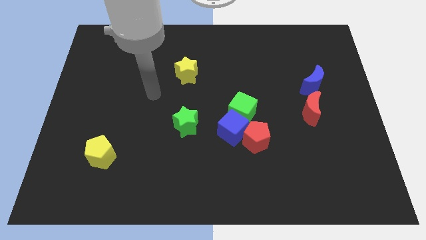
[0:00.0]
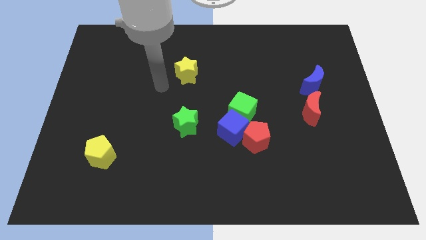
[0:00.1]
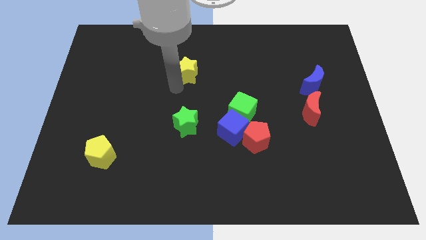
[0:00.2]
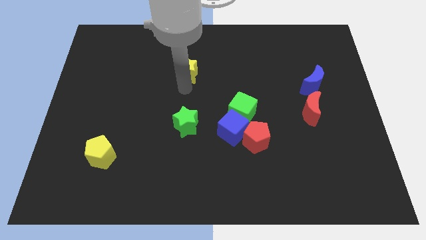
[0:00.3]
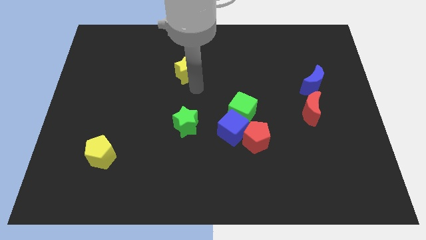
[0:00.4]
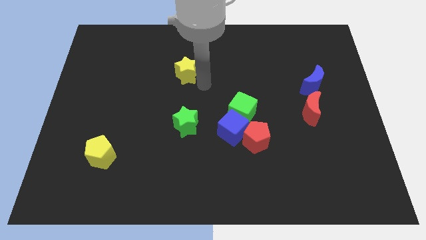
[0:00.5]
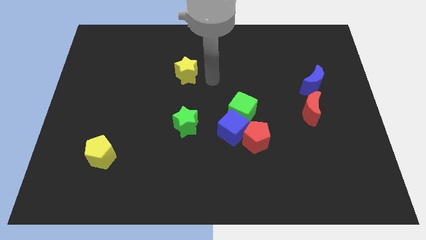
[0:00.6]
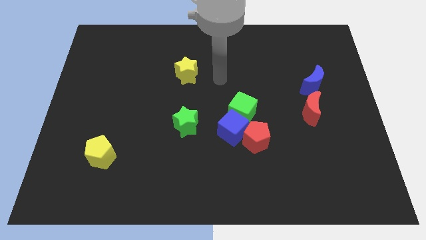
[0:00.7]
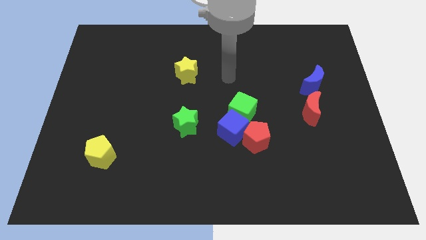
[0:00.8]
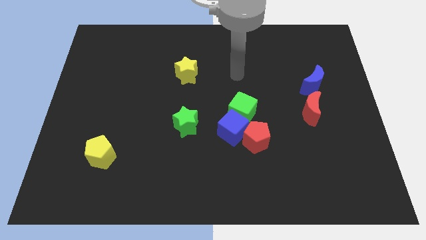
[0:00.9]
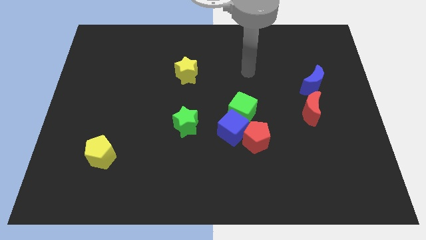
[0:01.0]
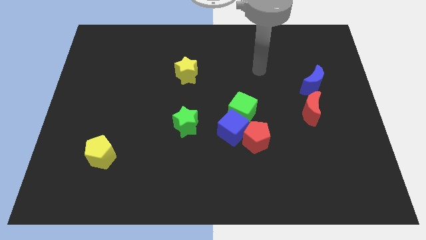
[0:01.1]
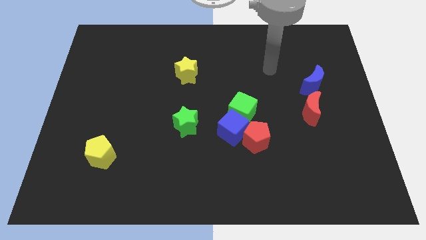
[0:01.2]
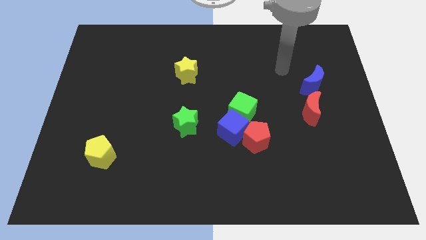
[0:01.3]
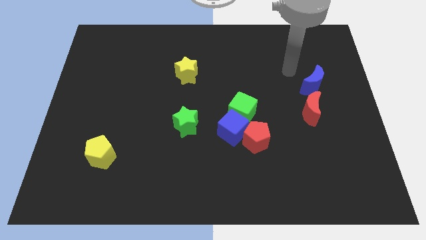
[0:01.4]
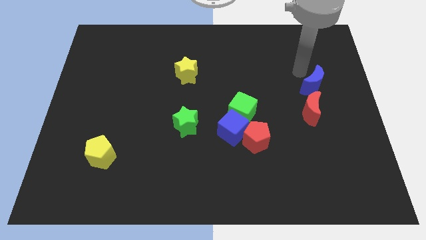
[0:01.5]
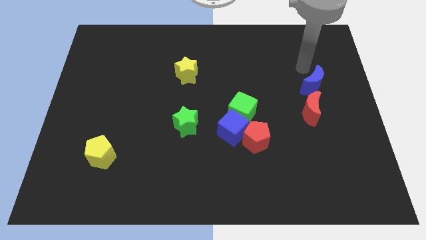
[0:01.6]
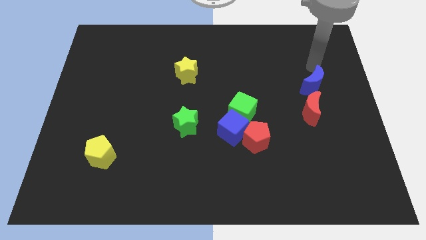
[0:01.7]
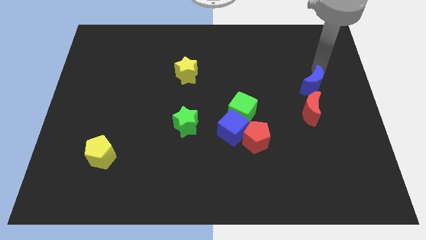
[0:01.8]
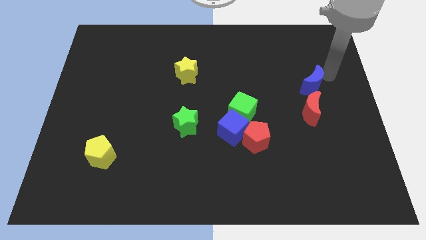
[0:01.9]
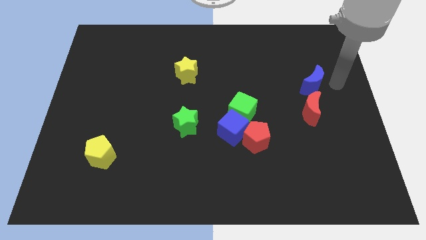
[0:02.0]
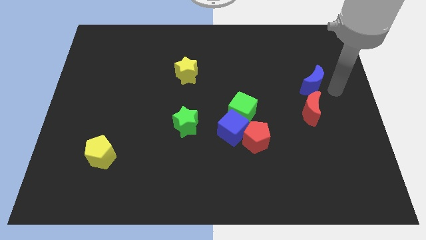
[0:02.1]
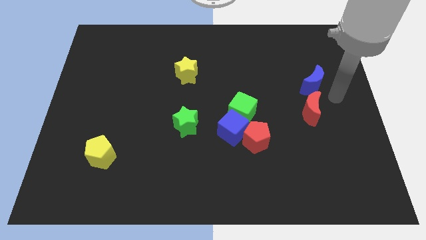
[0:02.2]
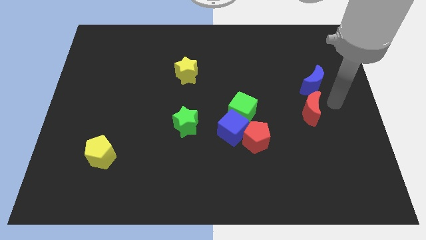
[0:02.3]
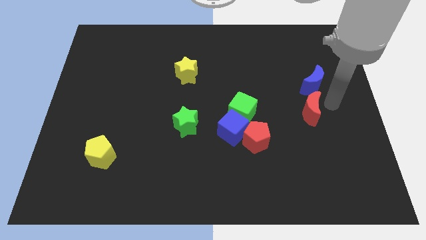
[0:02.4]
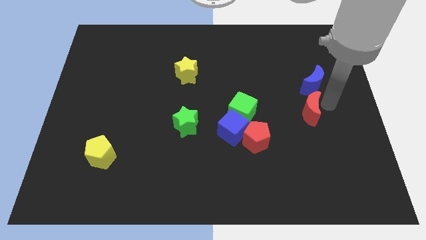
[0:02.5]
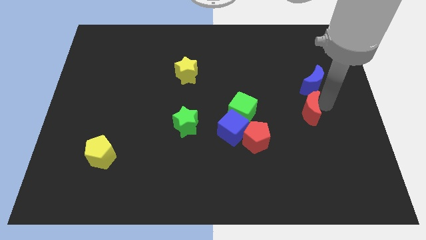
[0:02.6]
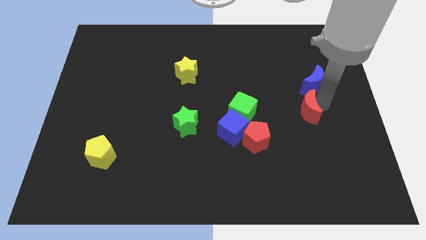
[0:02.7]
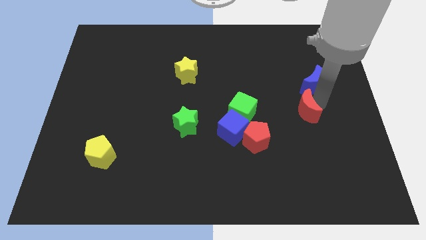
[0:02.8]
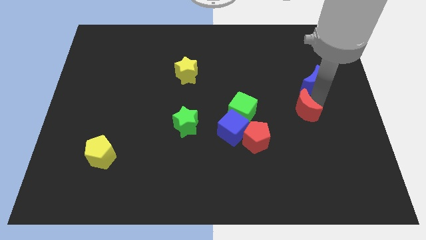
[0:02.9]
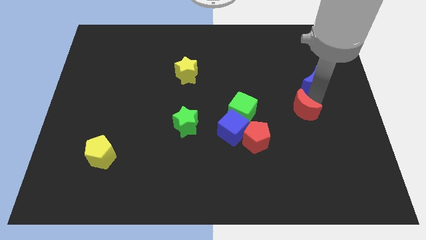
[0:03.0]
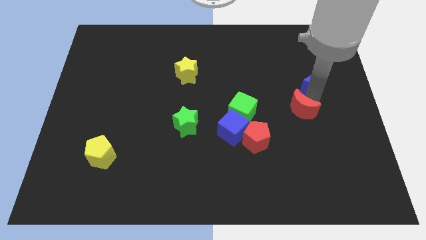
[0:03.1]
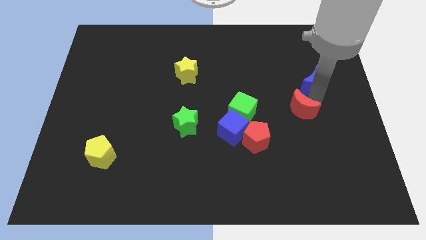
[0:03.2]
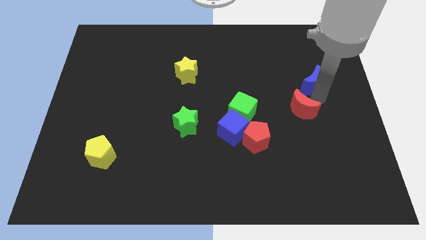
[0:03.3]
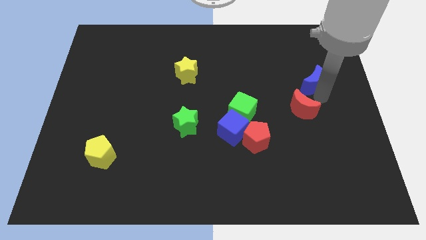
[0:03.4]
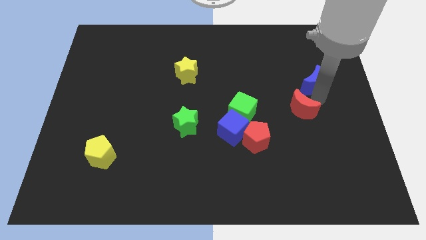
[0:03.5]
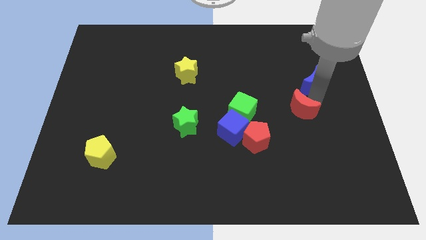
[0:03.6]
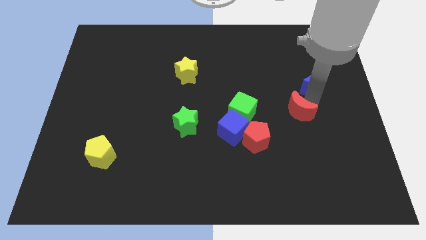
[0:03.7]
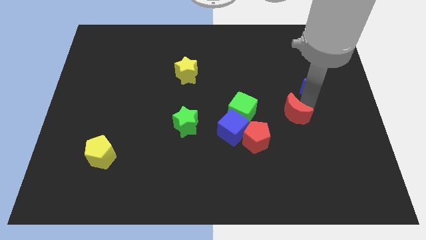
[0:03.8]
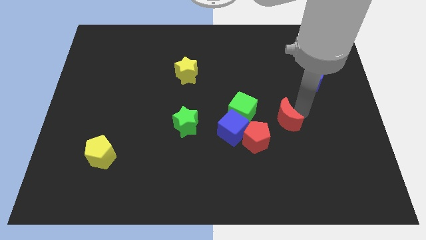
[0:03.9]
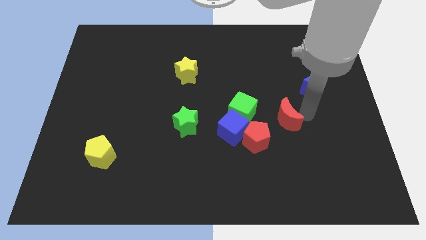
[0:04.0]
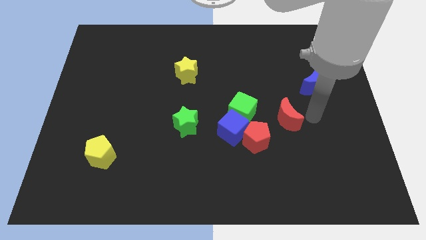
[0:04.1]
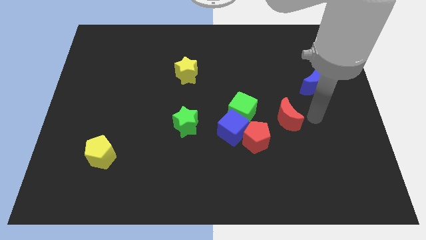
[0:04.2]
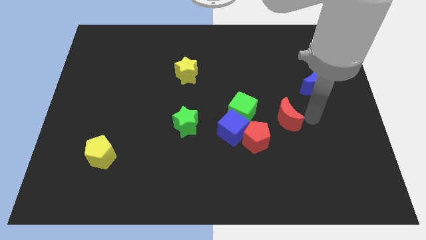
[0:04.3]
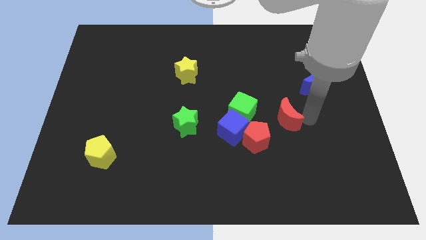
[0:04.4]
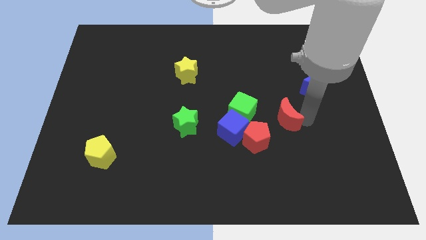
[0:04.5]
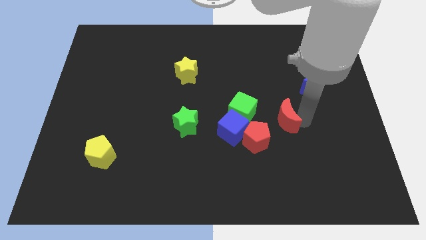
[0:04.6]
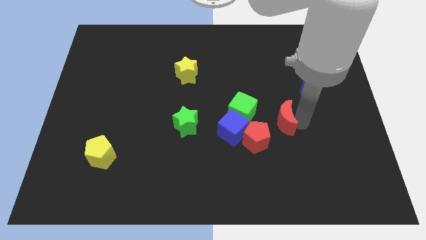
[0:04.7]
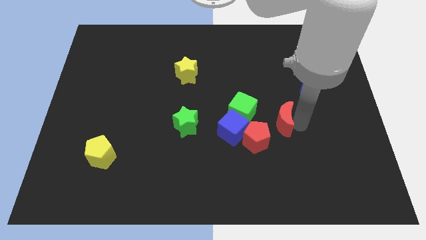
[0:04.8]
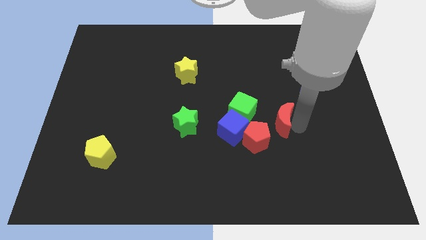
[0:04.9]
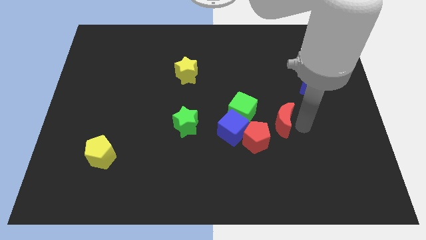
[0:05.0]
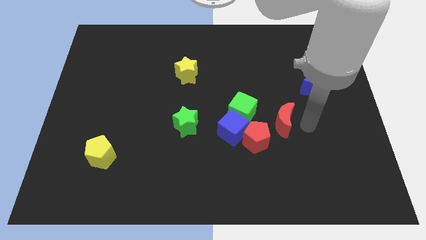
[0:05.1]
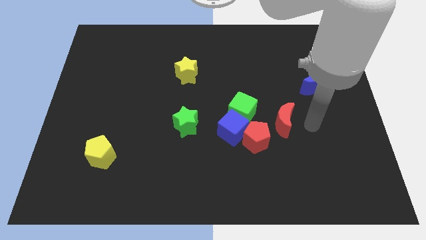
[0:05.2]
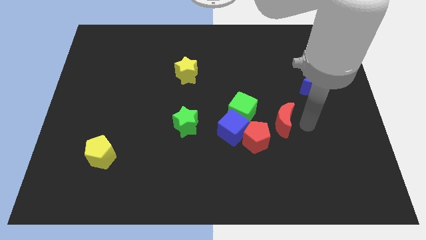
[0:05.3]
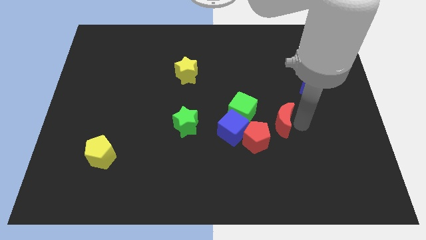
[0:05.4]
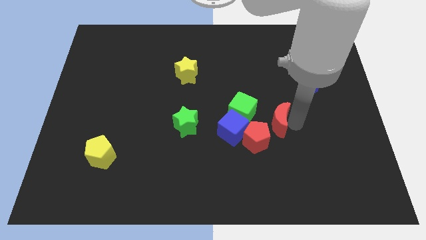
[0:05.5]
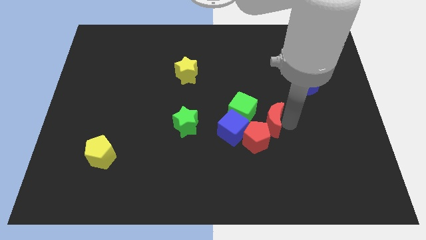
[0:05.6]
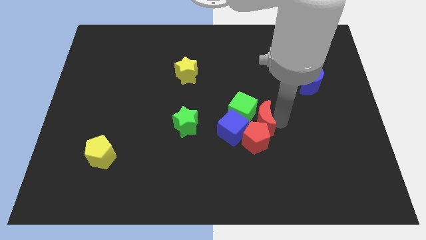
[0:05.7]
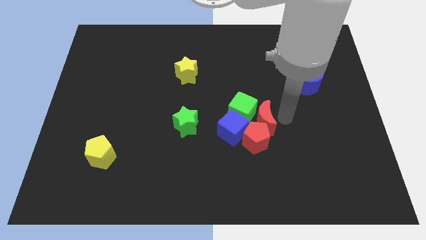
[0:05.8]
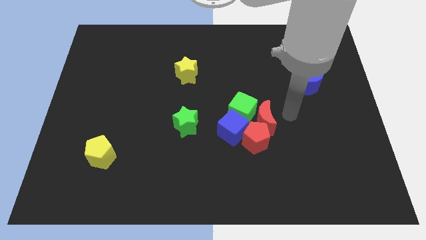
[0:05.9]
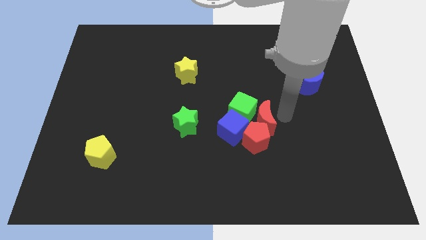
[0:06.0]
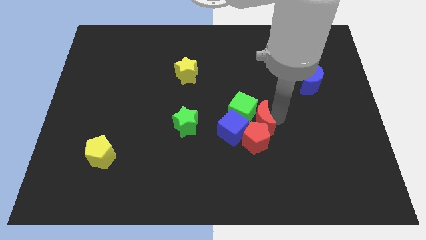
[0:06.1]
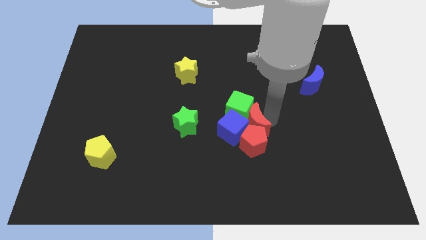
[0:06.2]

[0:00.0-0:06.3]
slide the red moon next to the blue cube

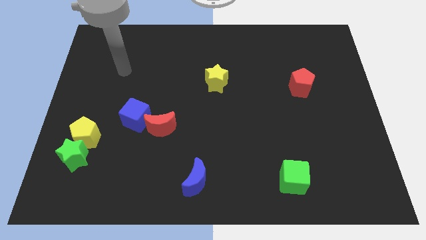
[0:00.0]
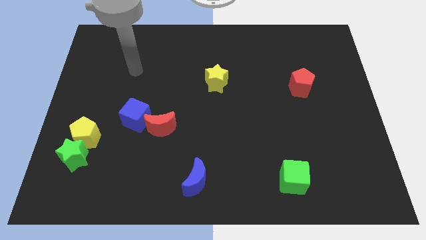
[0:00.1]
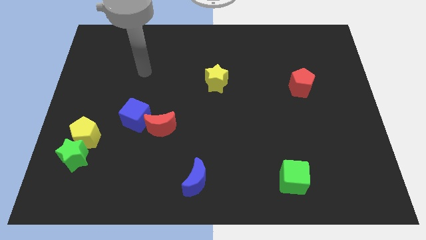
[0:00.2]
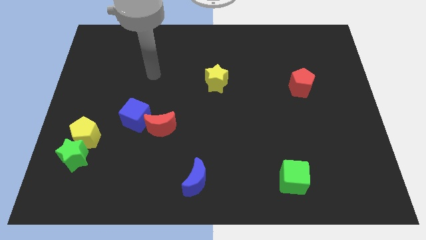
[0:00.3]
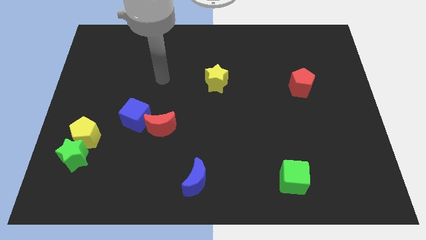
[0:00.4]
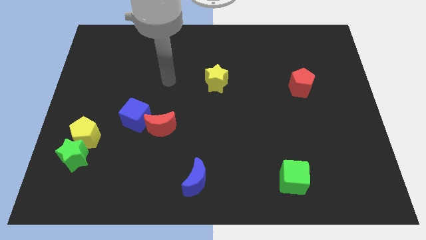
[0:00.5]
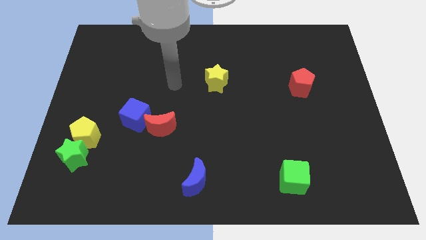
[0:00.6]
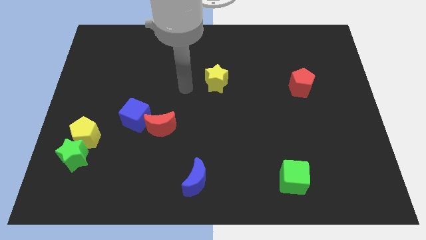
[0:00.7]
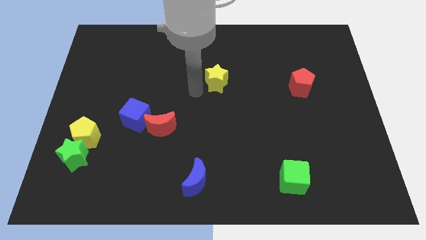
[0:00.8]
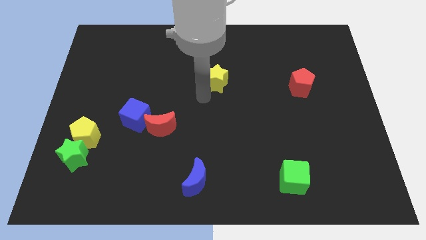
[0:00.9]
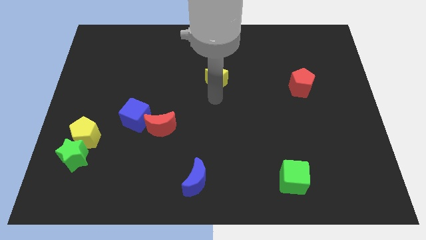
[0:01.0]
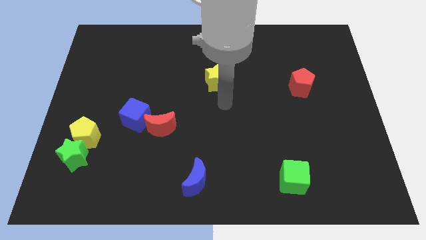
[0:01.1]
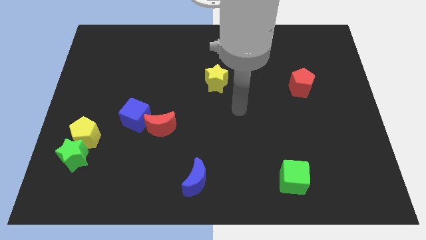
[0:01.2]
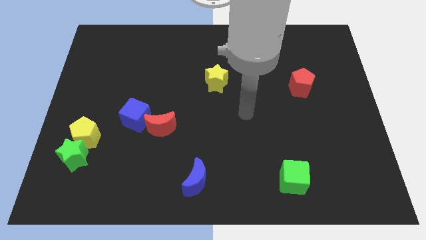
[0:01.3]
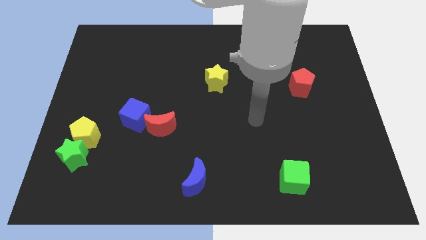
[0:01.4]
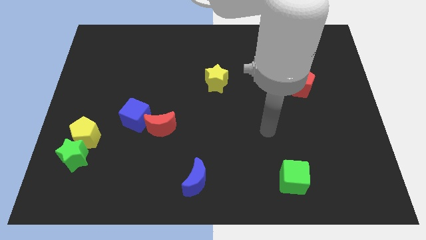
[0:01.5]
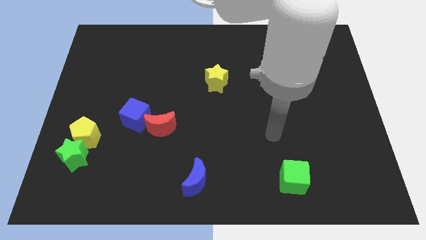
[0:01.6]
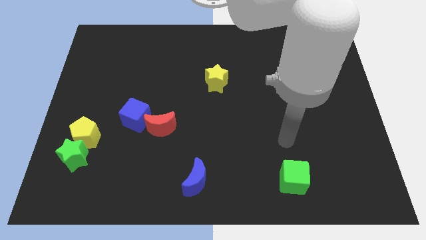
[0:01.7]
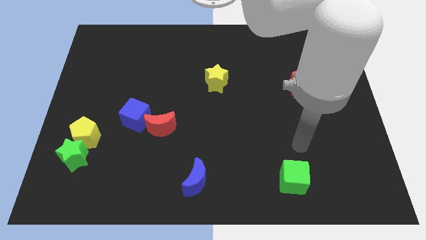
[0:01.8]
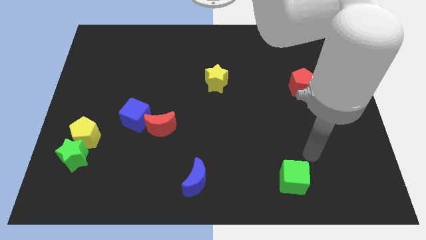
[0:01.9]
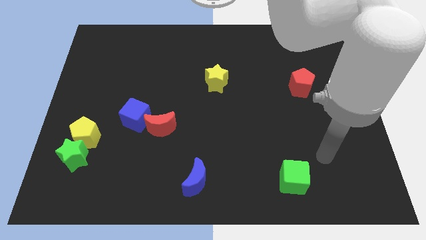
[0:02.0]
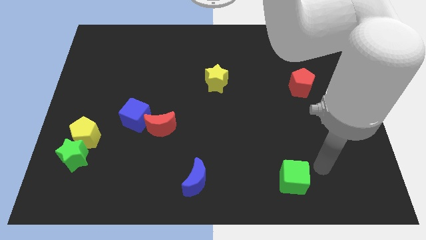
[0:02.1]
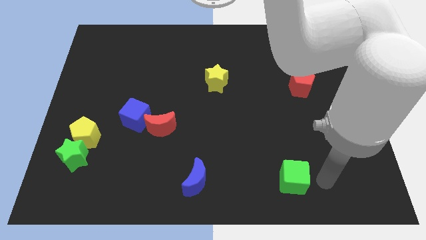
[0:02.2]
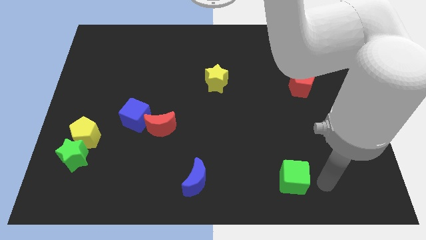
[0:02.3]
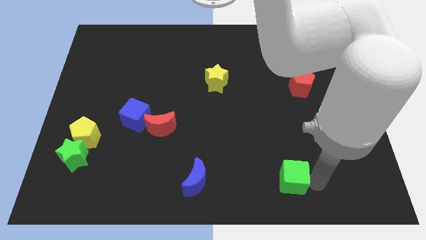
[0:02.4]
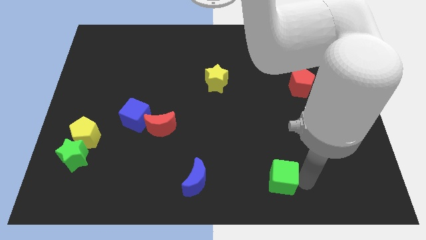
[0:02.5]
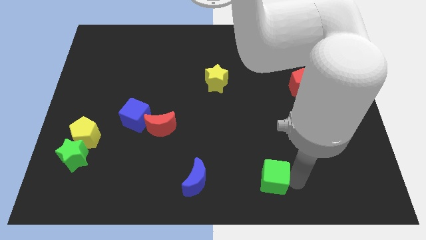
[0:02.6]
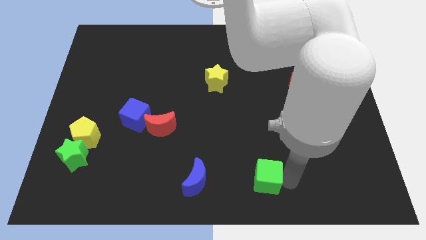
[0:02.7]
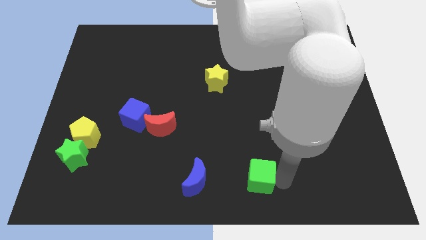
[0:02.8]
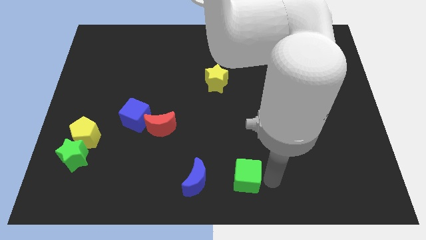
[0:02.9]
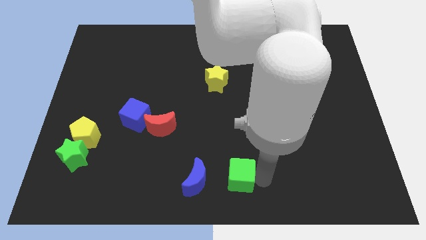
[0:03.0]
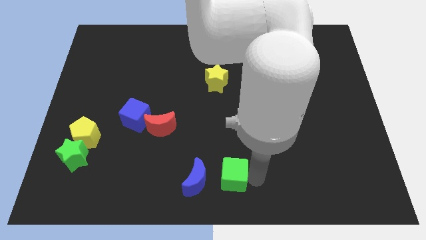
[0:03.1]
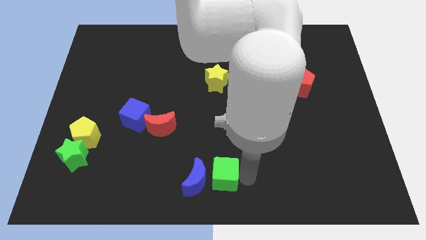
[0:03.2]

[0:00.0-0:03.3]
move the green cube close to the blue moon
